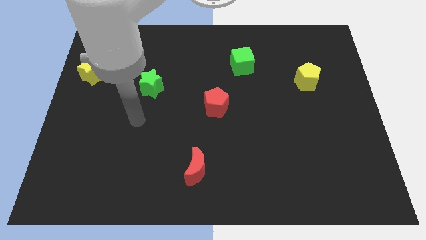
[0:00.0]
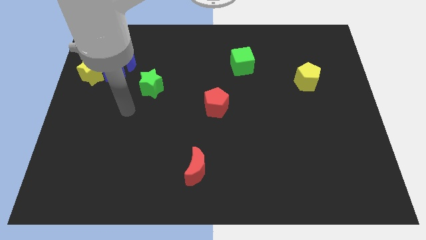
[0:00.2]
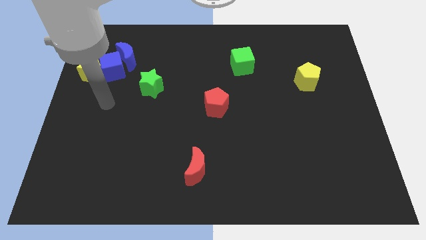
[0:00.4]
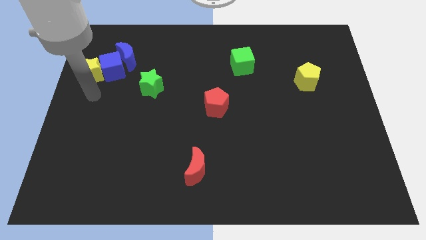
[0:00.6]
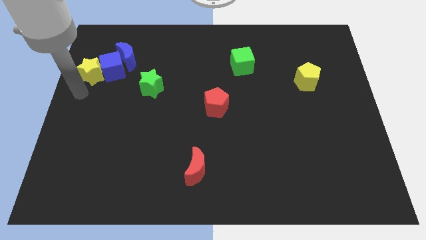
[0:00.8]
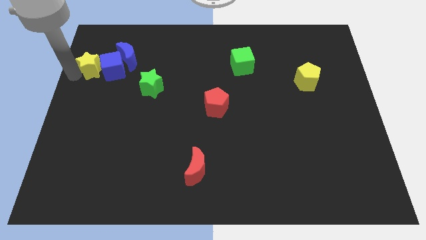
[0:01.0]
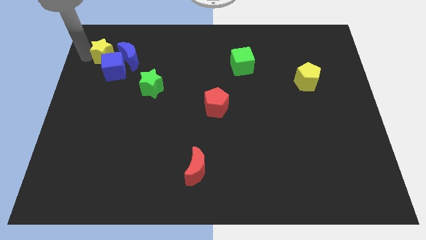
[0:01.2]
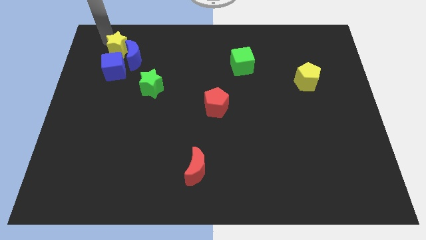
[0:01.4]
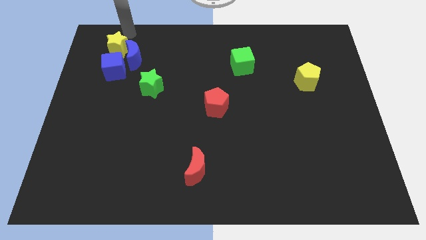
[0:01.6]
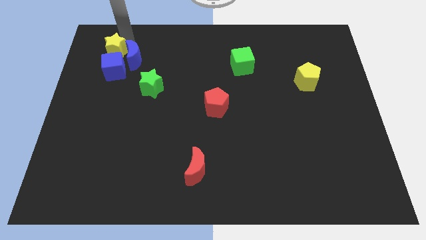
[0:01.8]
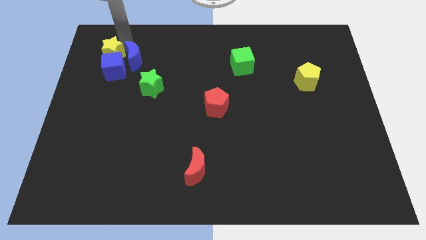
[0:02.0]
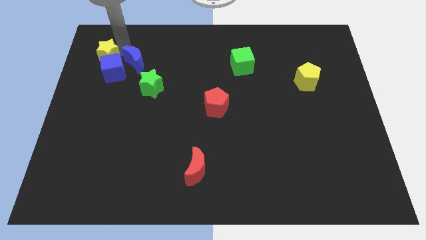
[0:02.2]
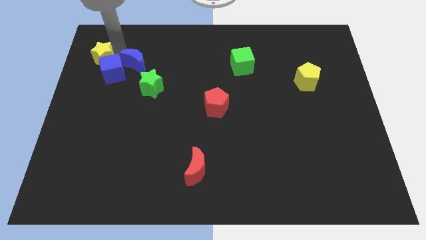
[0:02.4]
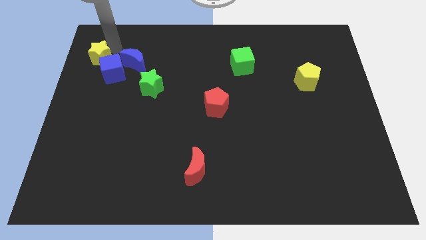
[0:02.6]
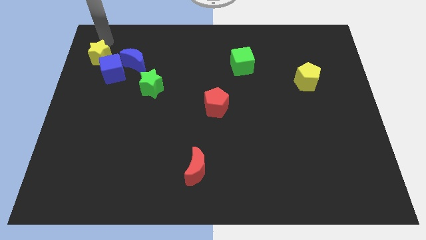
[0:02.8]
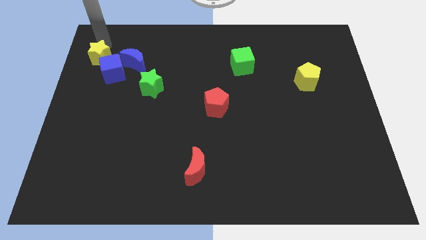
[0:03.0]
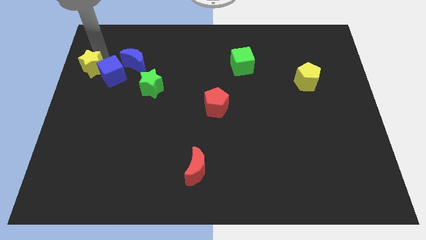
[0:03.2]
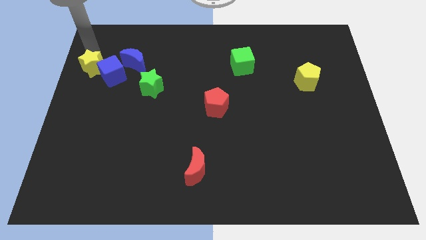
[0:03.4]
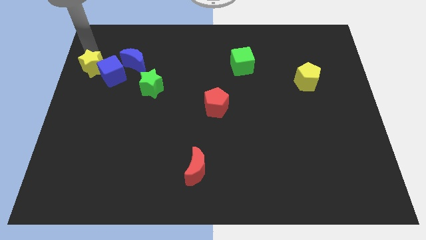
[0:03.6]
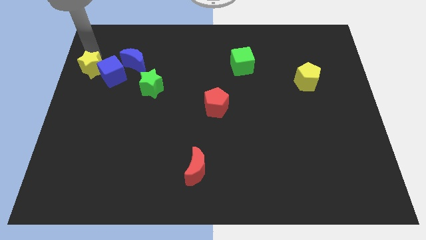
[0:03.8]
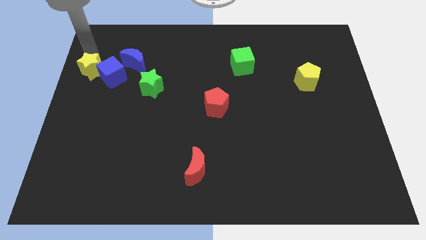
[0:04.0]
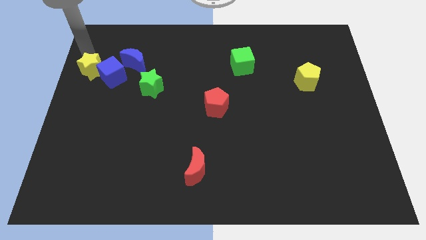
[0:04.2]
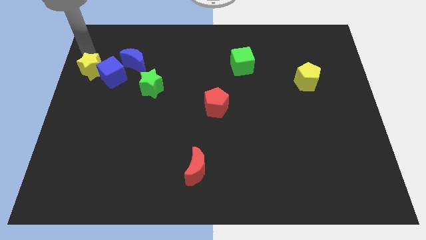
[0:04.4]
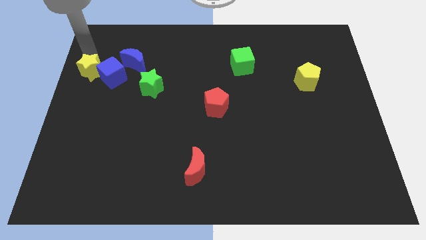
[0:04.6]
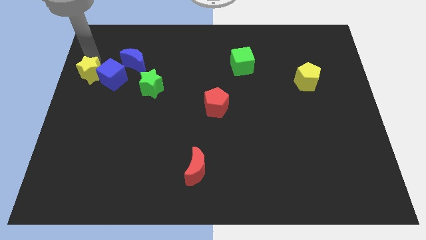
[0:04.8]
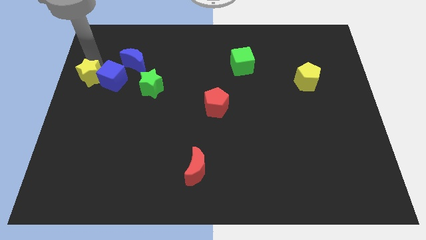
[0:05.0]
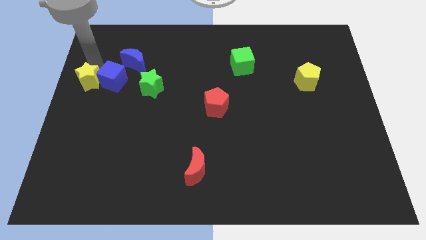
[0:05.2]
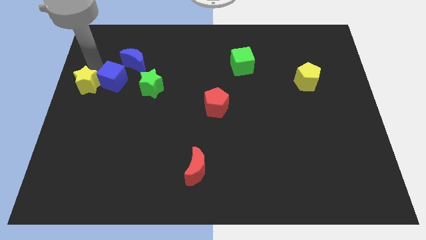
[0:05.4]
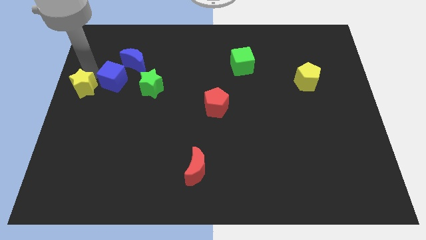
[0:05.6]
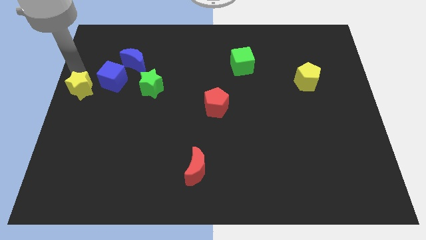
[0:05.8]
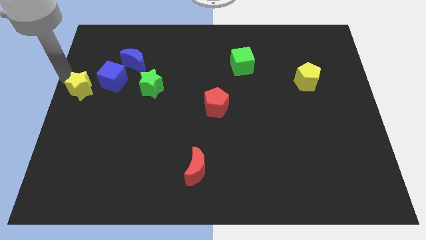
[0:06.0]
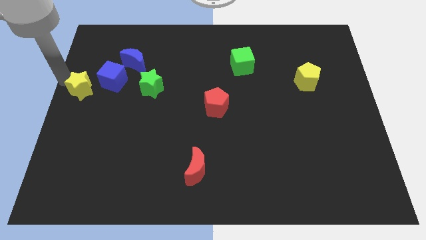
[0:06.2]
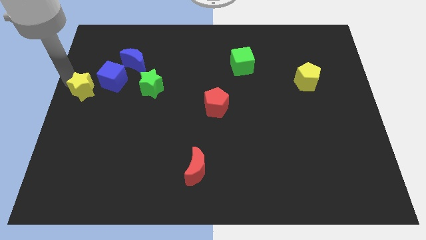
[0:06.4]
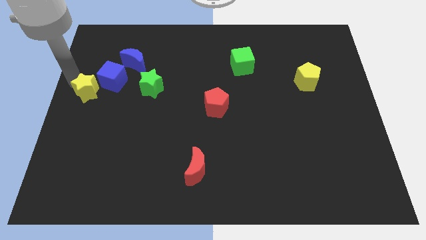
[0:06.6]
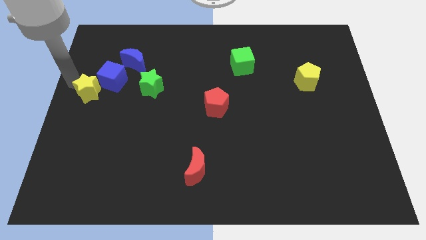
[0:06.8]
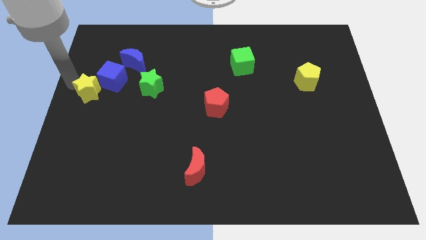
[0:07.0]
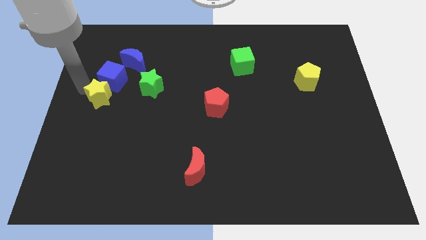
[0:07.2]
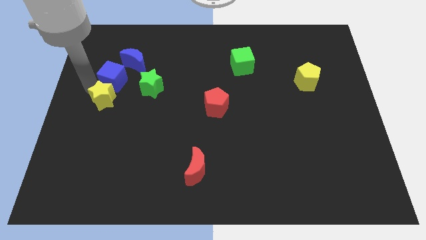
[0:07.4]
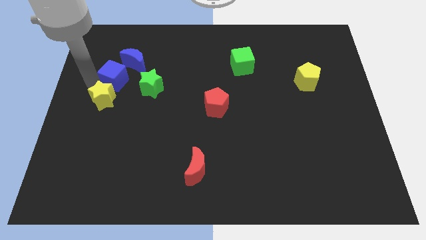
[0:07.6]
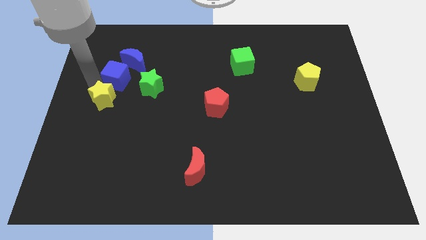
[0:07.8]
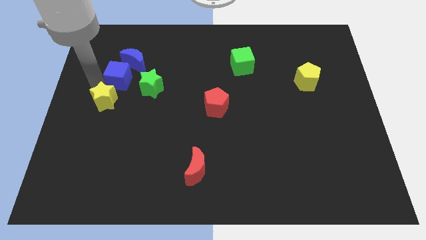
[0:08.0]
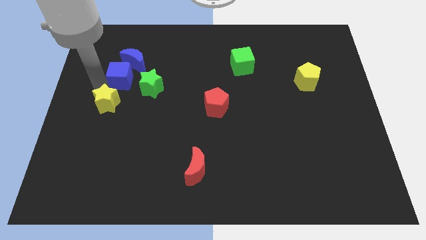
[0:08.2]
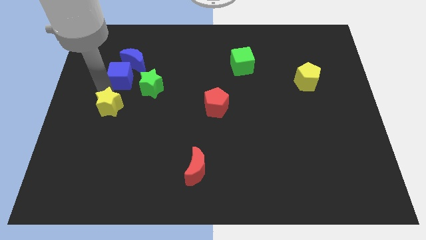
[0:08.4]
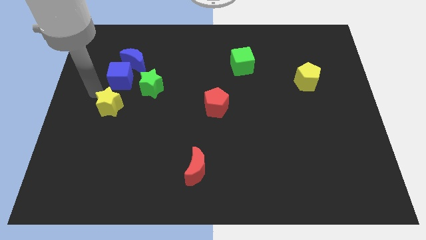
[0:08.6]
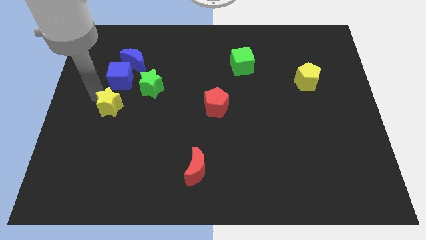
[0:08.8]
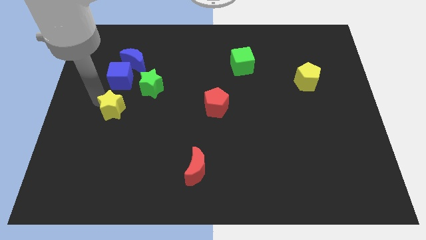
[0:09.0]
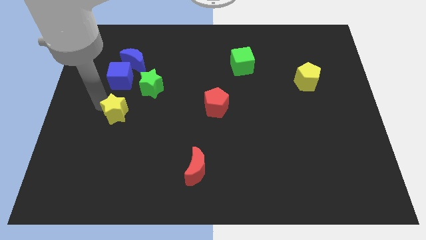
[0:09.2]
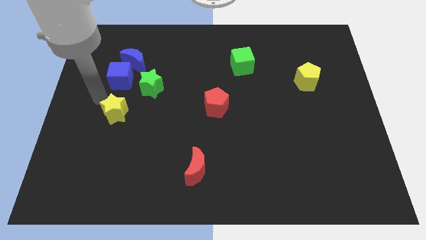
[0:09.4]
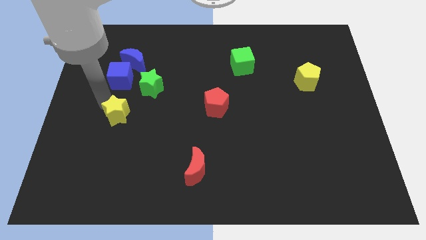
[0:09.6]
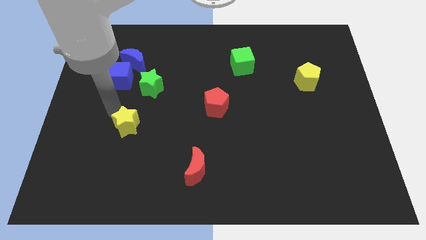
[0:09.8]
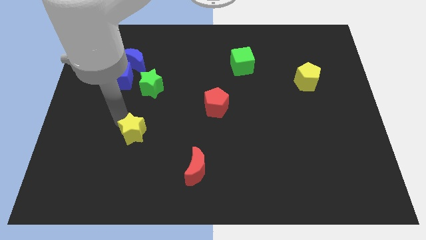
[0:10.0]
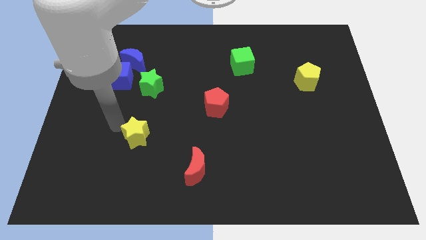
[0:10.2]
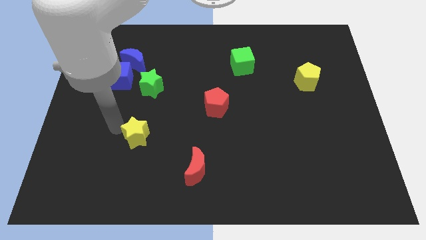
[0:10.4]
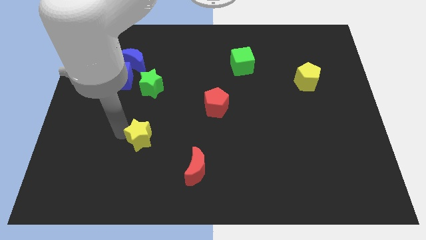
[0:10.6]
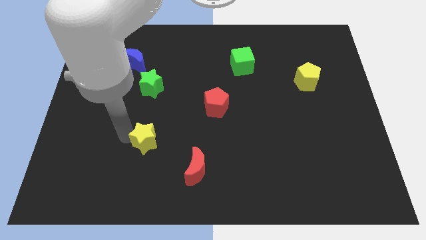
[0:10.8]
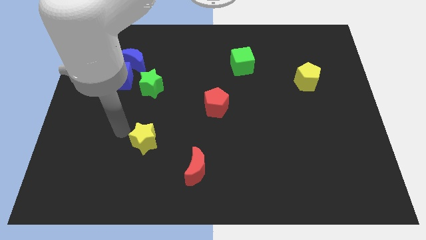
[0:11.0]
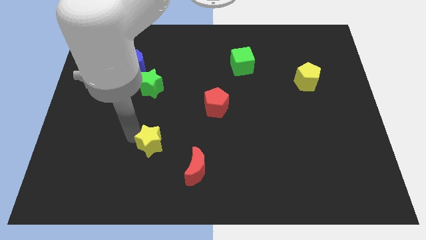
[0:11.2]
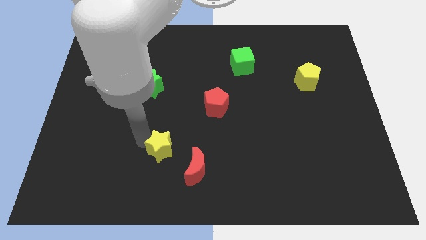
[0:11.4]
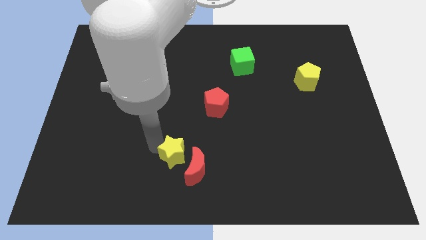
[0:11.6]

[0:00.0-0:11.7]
move the yellow star towards the red moon

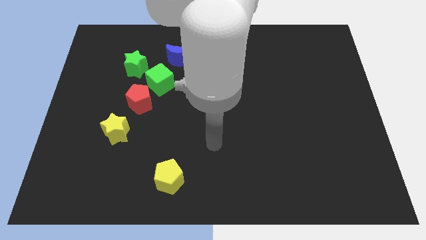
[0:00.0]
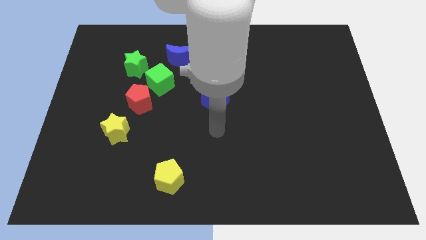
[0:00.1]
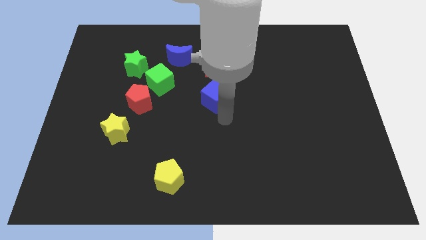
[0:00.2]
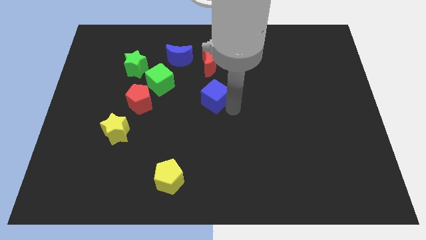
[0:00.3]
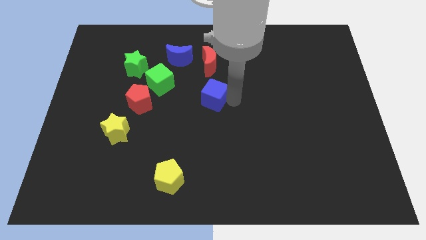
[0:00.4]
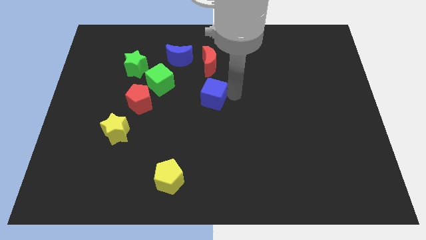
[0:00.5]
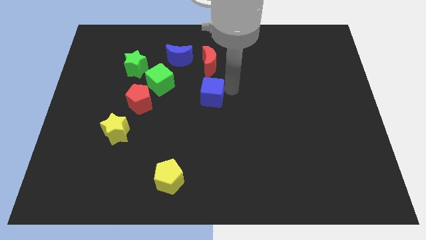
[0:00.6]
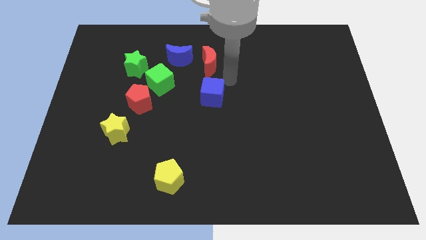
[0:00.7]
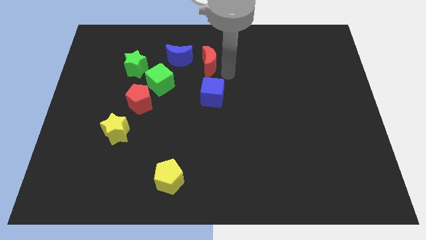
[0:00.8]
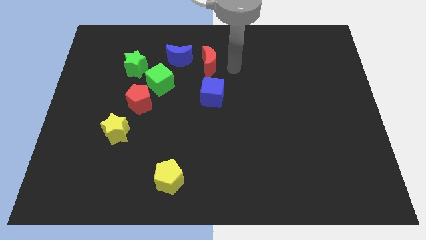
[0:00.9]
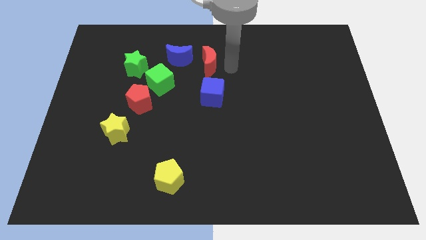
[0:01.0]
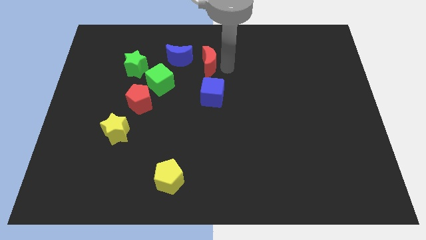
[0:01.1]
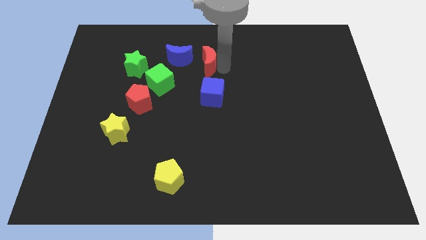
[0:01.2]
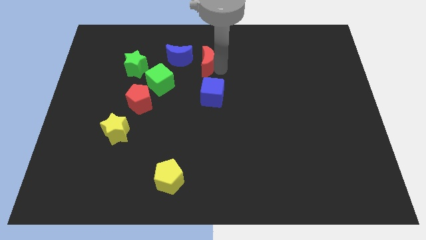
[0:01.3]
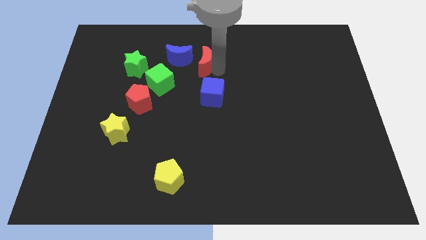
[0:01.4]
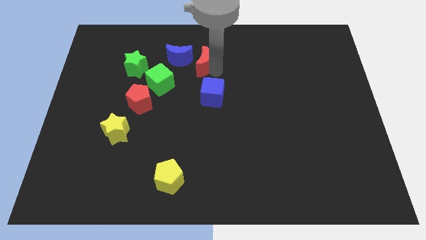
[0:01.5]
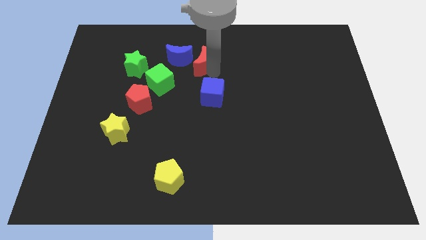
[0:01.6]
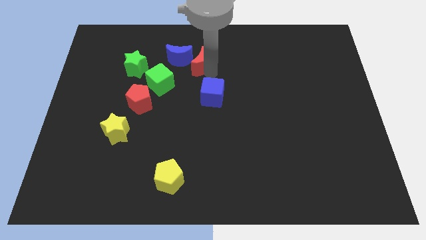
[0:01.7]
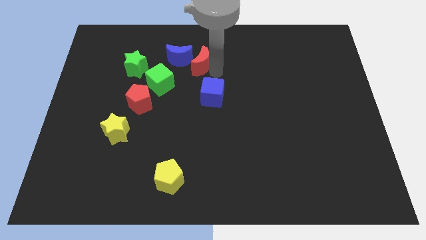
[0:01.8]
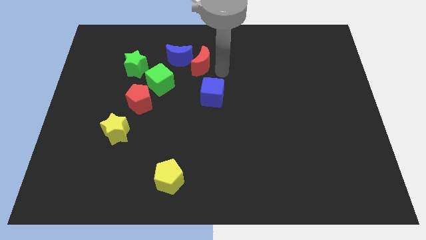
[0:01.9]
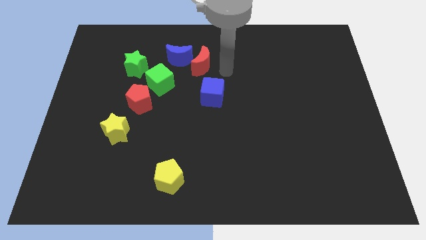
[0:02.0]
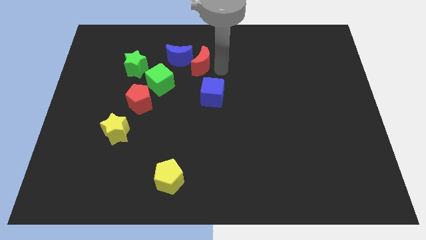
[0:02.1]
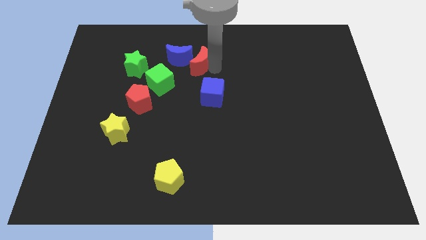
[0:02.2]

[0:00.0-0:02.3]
move the red moon to the blue moon

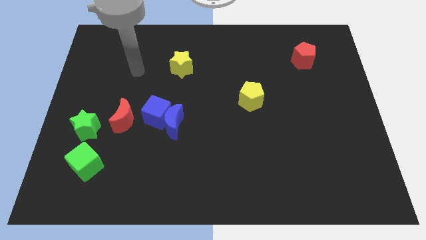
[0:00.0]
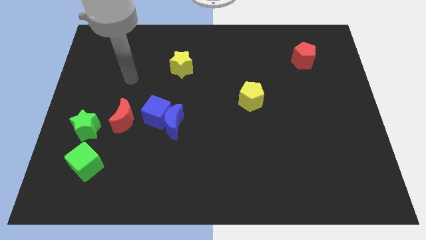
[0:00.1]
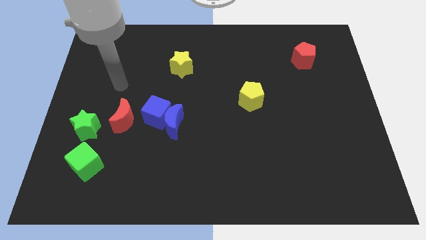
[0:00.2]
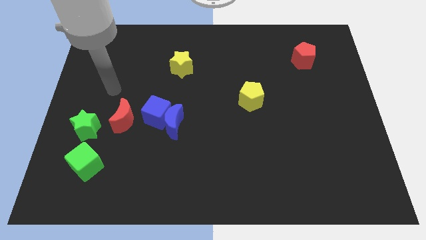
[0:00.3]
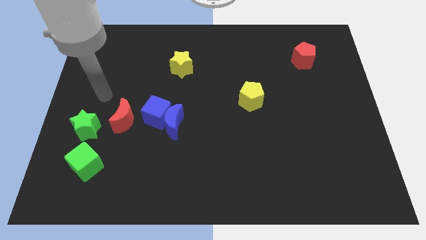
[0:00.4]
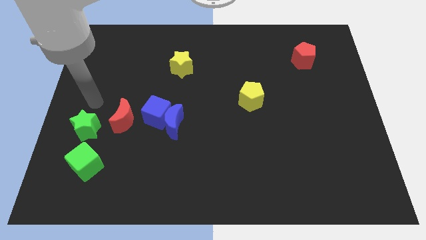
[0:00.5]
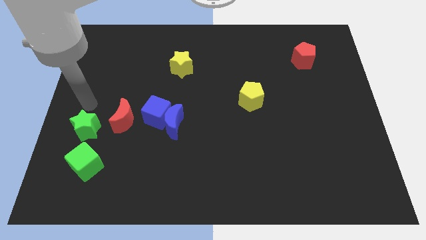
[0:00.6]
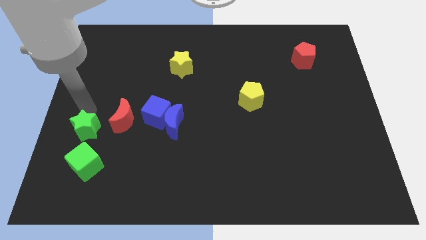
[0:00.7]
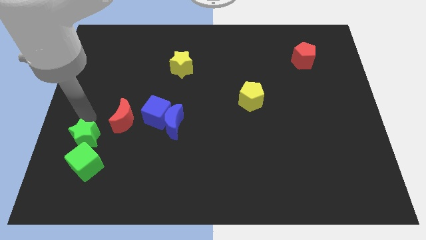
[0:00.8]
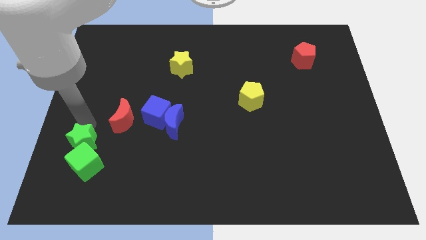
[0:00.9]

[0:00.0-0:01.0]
move the green star next to the green cube
